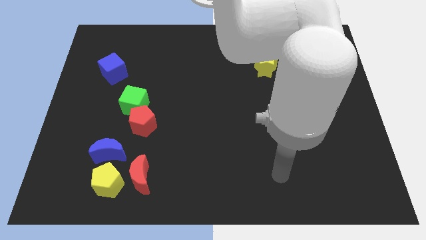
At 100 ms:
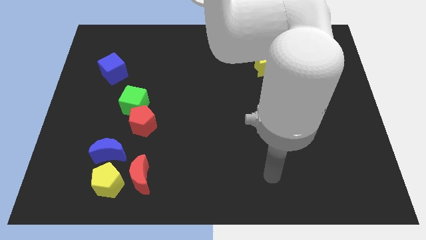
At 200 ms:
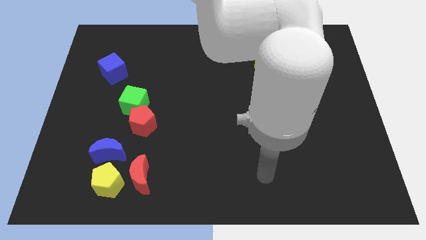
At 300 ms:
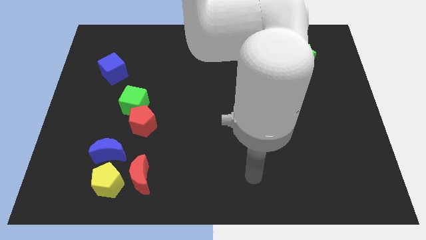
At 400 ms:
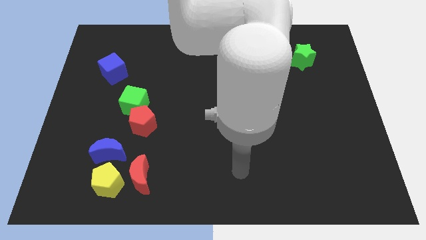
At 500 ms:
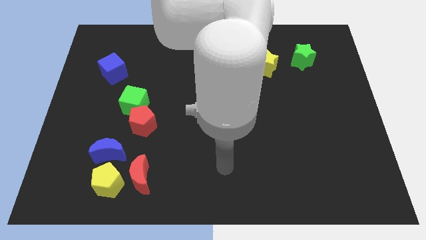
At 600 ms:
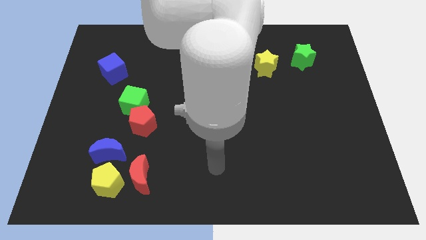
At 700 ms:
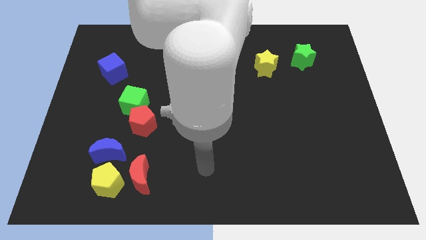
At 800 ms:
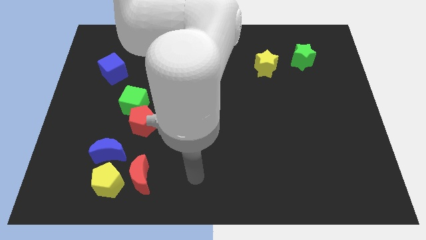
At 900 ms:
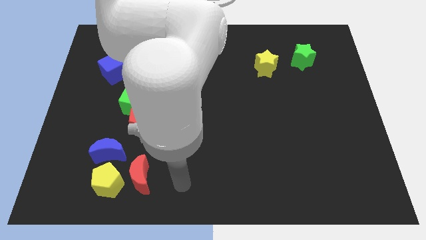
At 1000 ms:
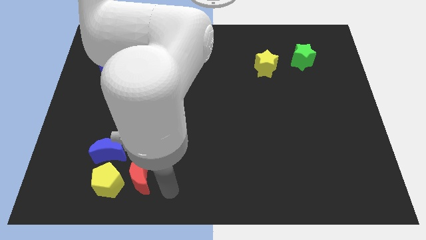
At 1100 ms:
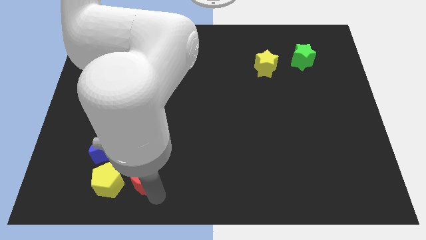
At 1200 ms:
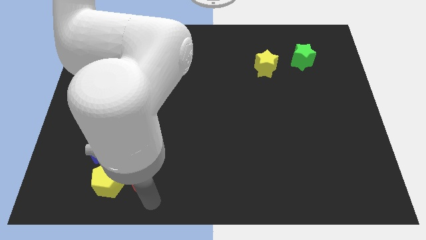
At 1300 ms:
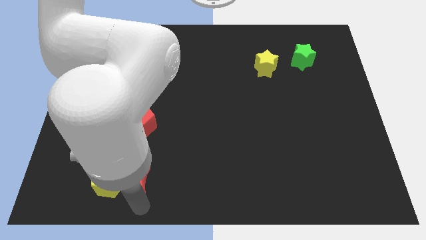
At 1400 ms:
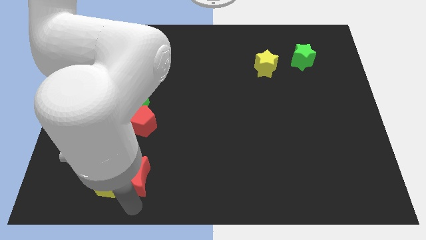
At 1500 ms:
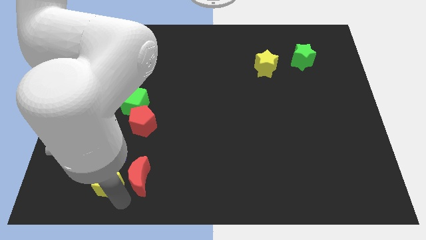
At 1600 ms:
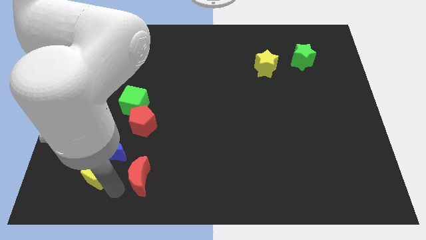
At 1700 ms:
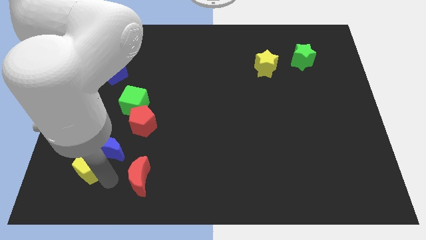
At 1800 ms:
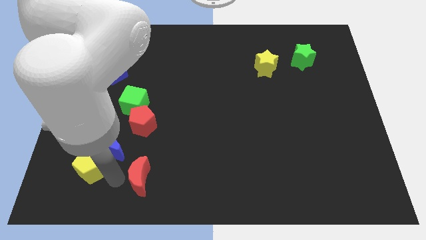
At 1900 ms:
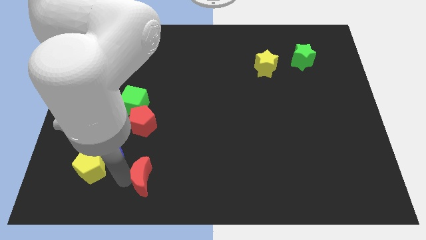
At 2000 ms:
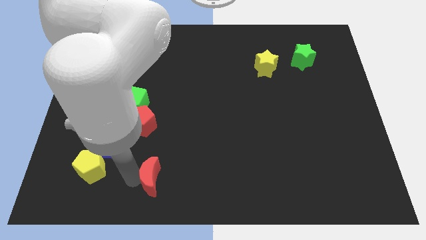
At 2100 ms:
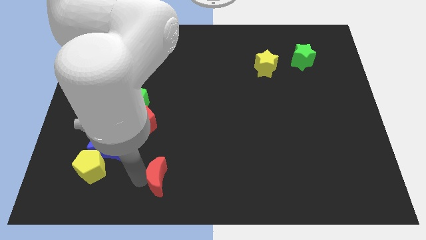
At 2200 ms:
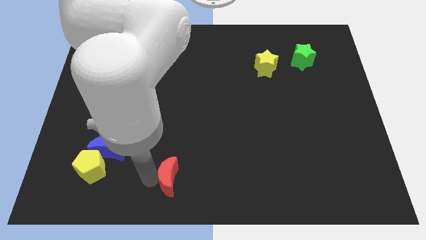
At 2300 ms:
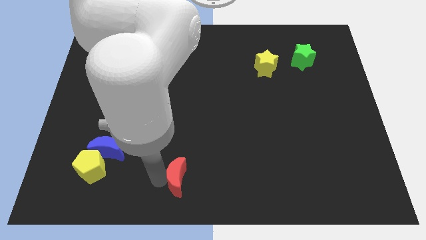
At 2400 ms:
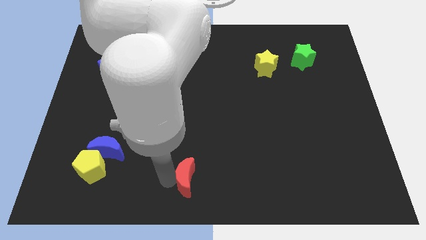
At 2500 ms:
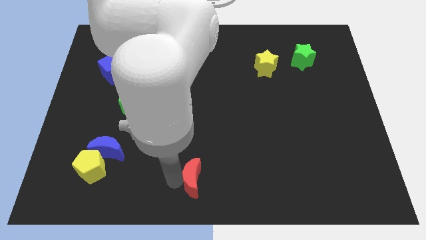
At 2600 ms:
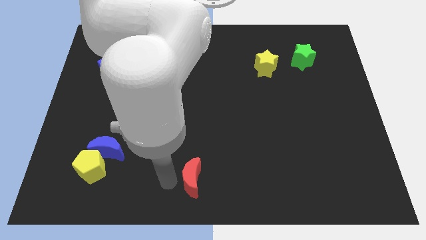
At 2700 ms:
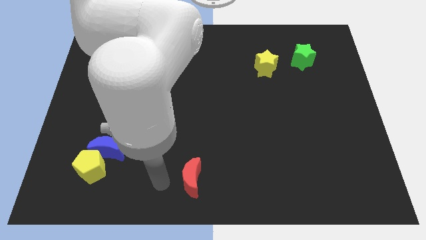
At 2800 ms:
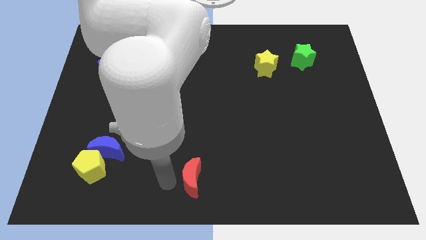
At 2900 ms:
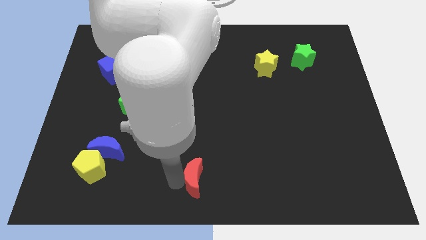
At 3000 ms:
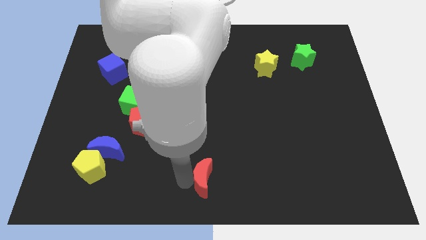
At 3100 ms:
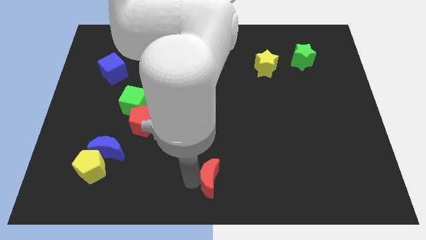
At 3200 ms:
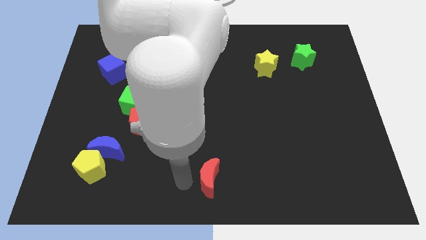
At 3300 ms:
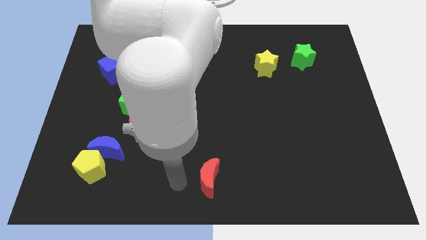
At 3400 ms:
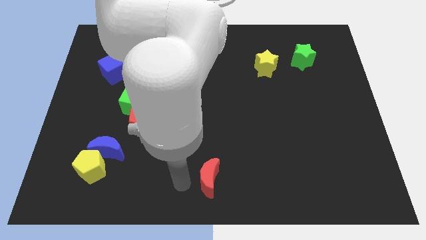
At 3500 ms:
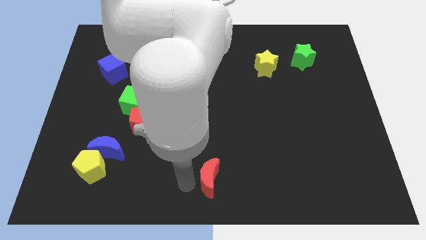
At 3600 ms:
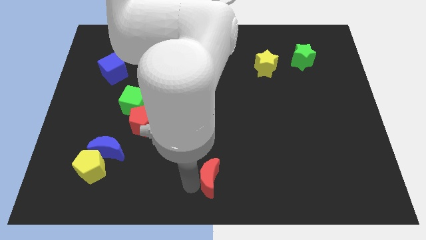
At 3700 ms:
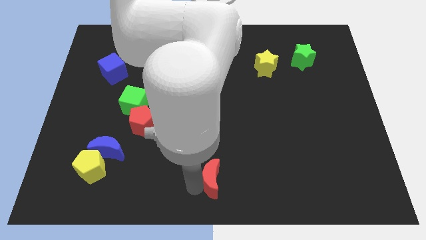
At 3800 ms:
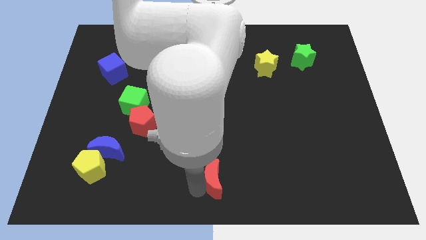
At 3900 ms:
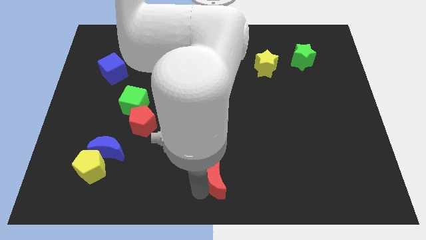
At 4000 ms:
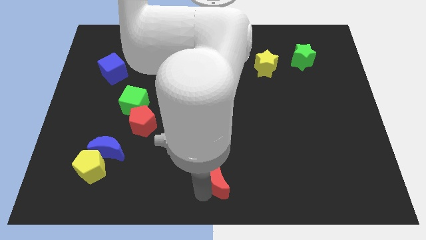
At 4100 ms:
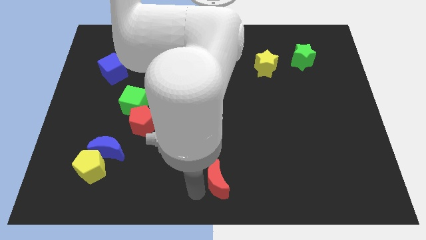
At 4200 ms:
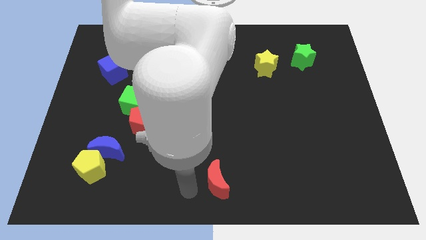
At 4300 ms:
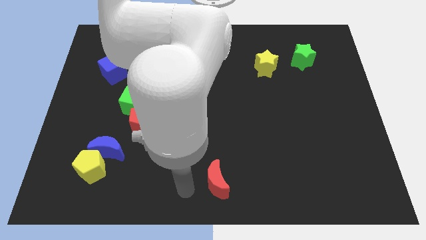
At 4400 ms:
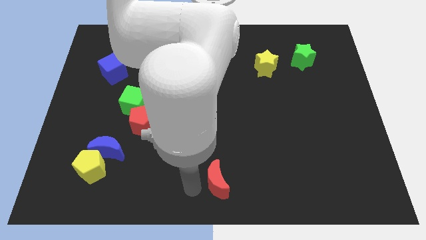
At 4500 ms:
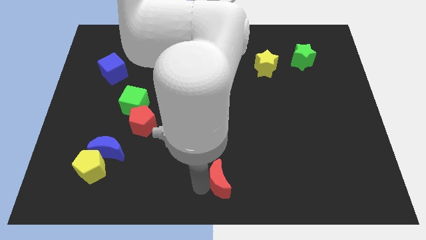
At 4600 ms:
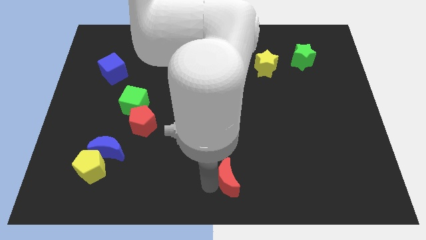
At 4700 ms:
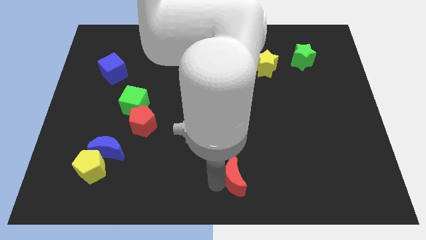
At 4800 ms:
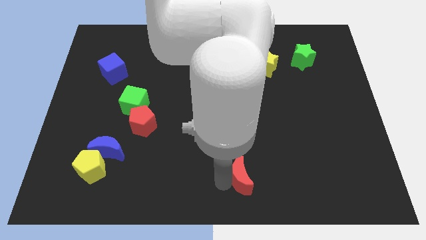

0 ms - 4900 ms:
slide the red moon right

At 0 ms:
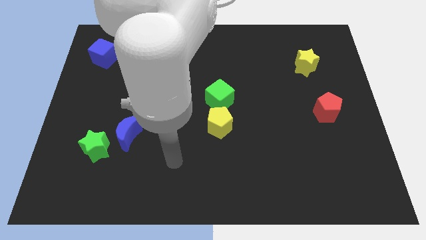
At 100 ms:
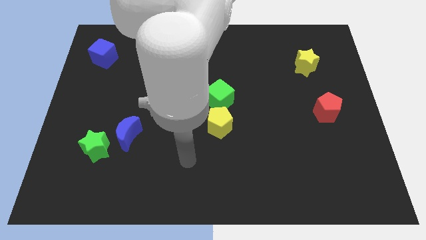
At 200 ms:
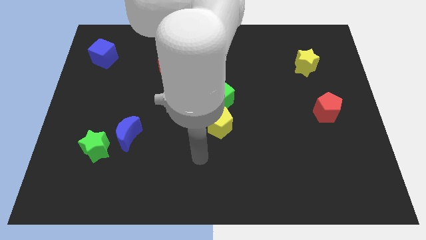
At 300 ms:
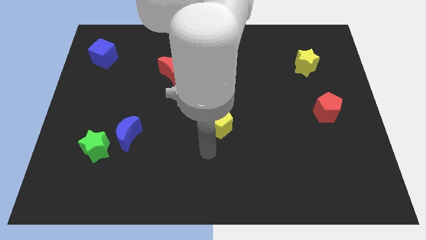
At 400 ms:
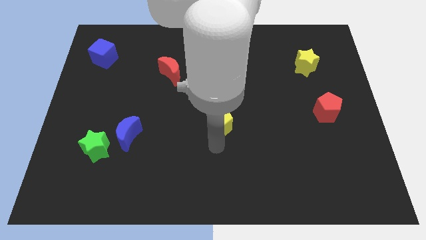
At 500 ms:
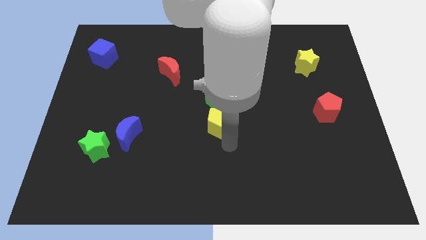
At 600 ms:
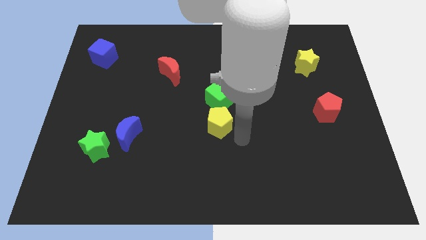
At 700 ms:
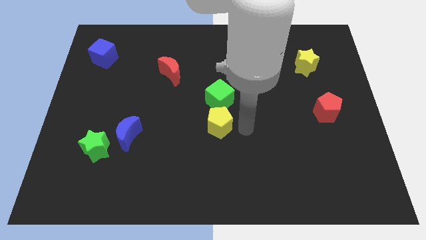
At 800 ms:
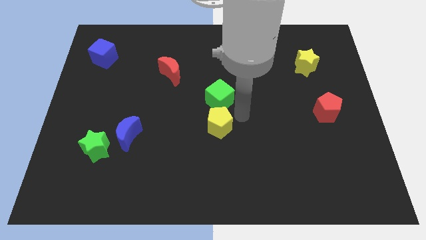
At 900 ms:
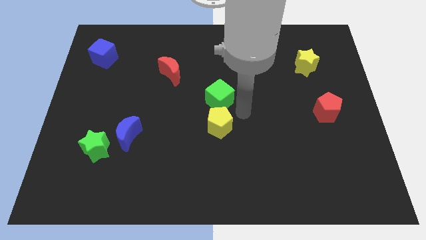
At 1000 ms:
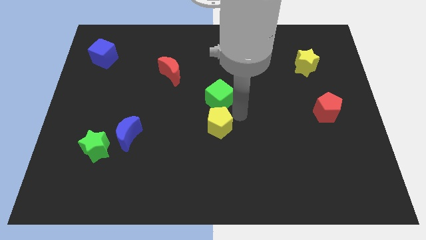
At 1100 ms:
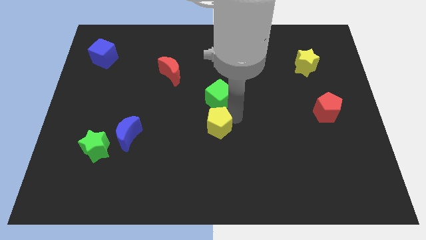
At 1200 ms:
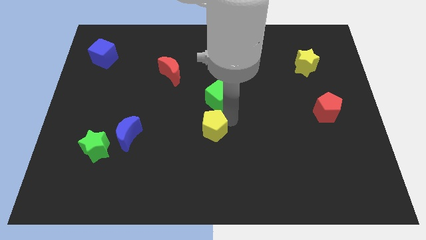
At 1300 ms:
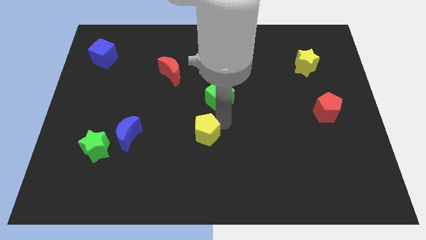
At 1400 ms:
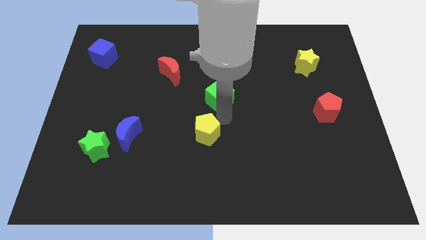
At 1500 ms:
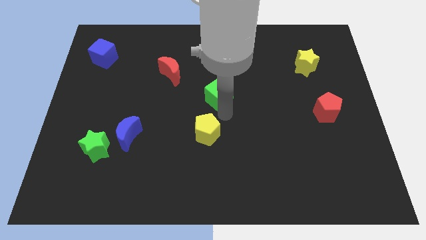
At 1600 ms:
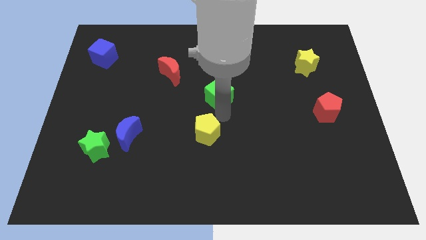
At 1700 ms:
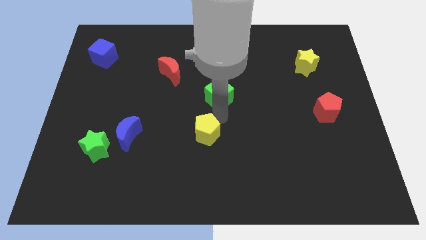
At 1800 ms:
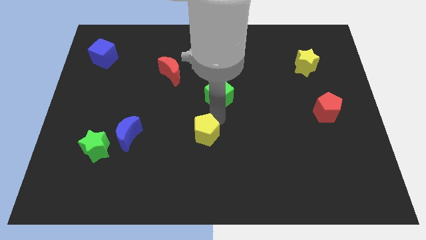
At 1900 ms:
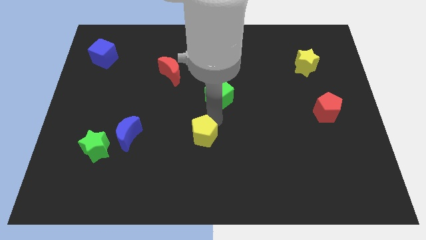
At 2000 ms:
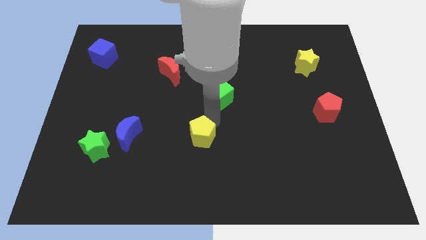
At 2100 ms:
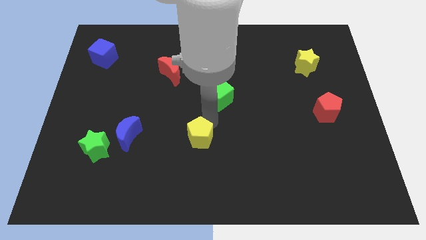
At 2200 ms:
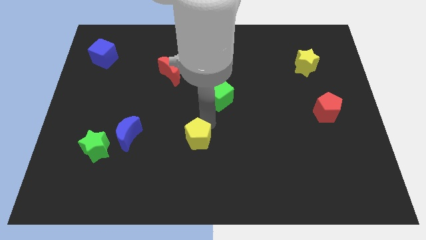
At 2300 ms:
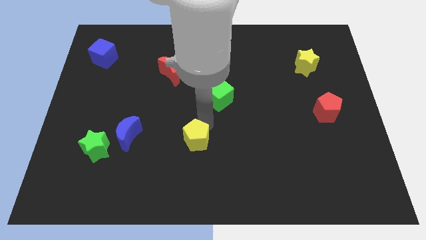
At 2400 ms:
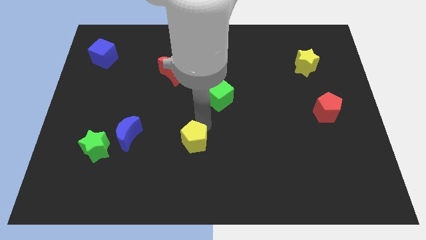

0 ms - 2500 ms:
slightly move the yellow pentagon diagonally downwards and left

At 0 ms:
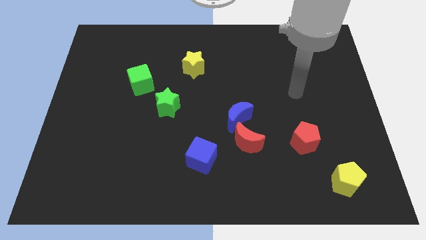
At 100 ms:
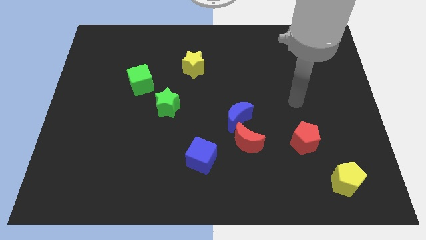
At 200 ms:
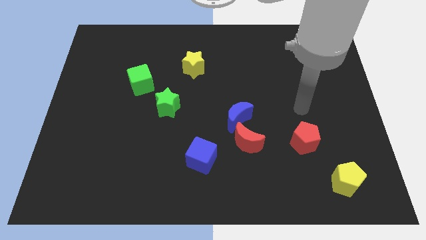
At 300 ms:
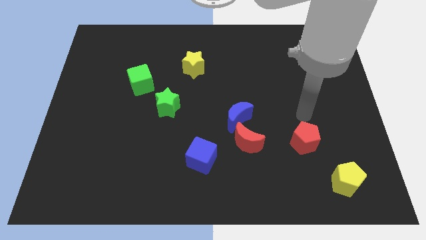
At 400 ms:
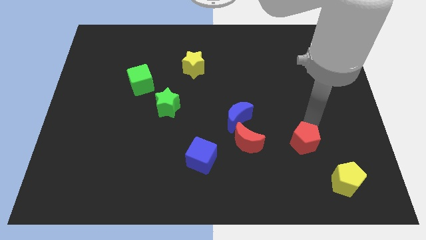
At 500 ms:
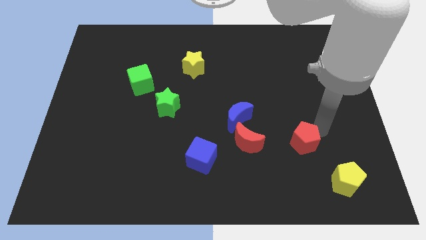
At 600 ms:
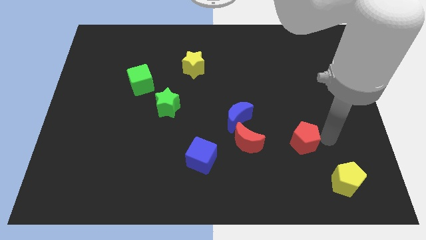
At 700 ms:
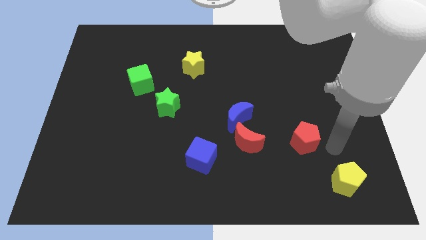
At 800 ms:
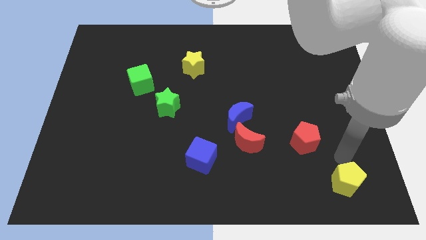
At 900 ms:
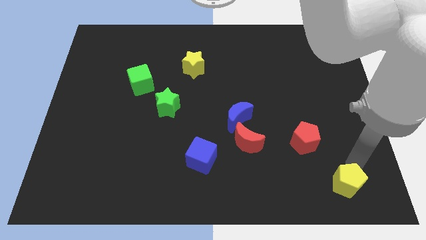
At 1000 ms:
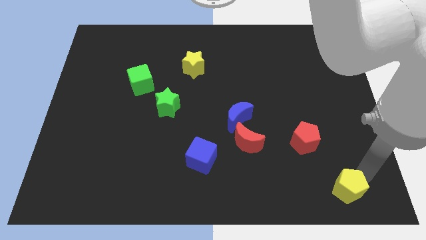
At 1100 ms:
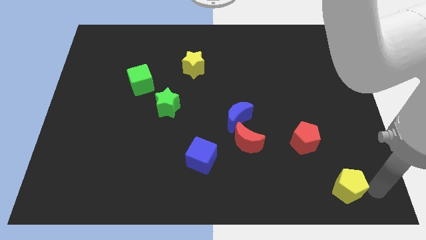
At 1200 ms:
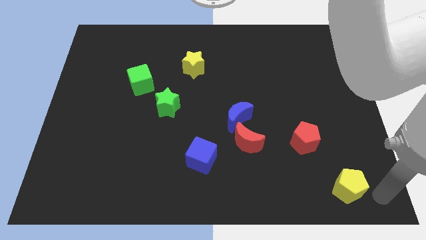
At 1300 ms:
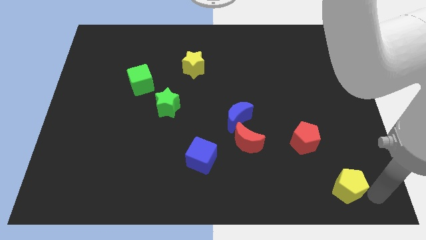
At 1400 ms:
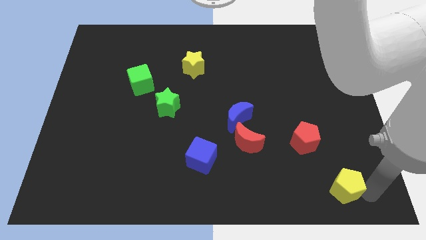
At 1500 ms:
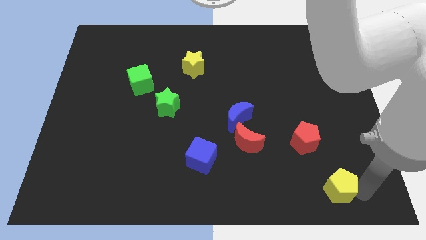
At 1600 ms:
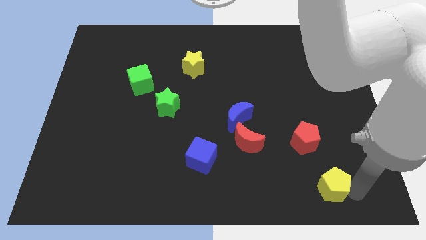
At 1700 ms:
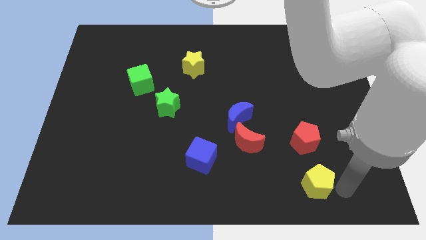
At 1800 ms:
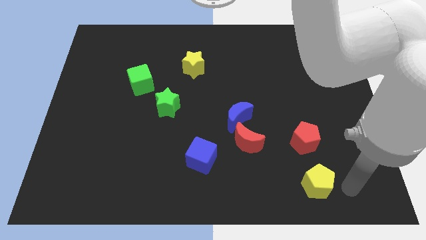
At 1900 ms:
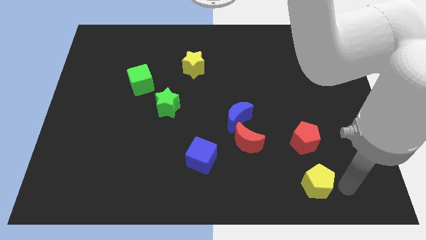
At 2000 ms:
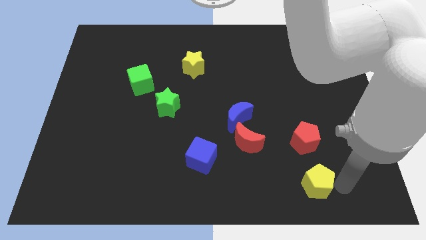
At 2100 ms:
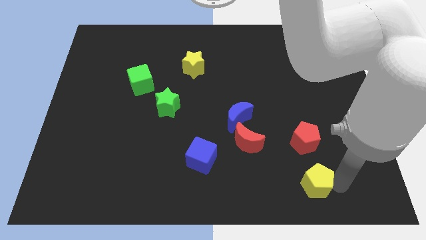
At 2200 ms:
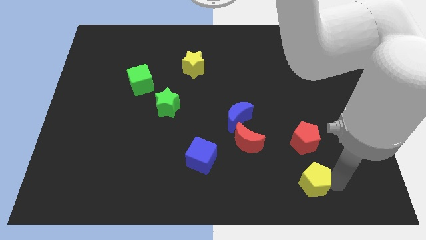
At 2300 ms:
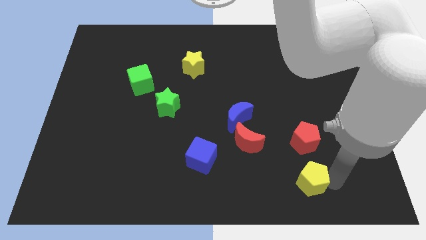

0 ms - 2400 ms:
slide the yellow pentagon to the left slightly
